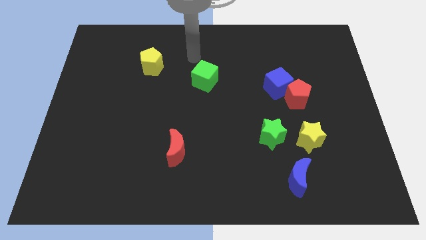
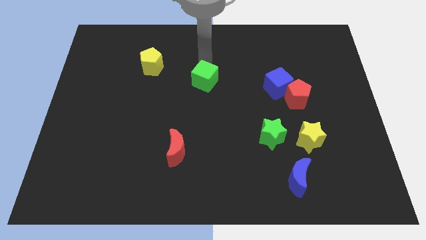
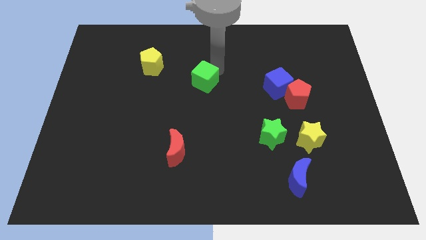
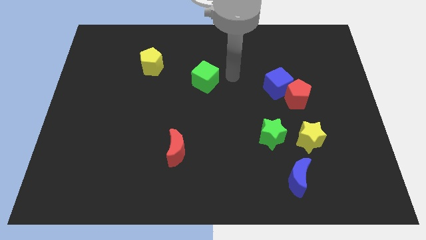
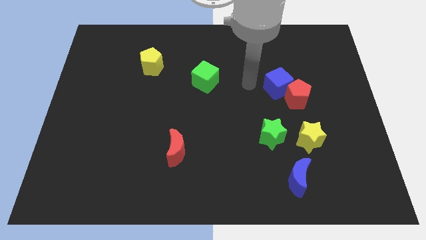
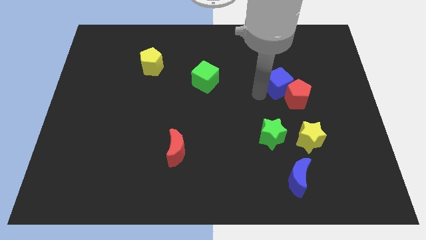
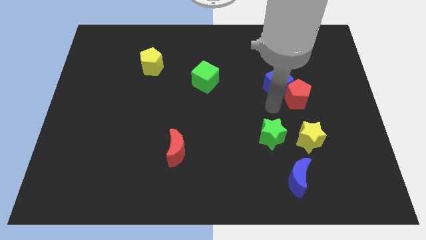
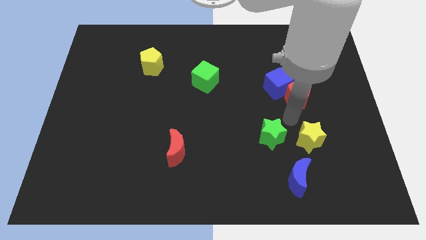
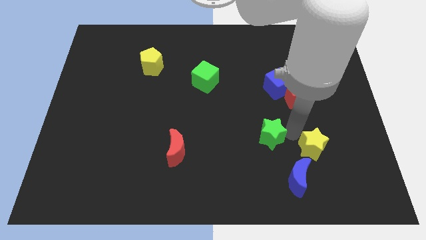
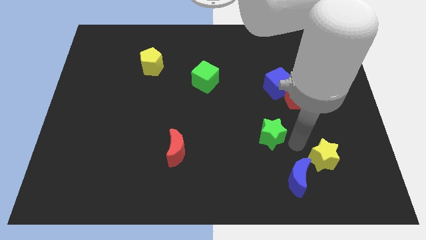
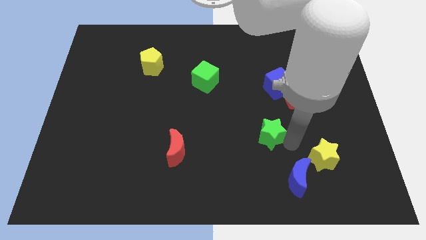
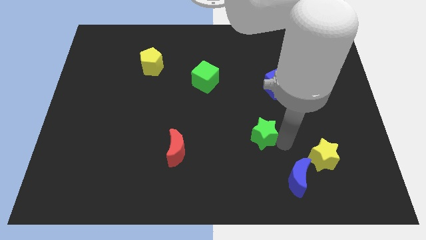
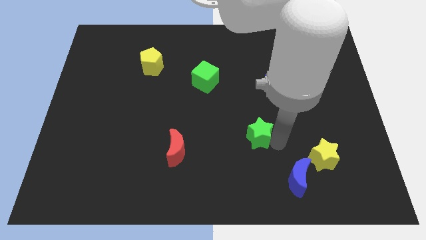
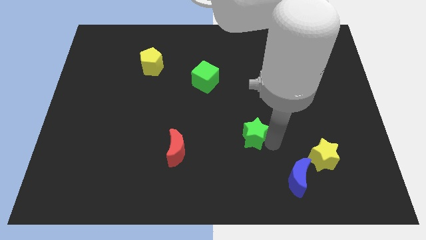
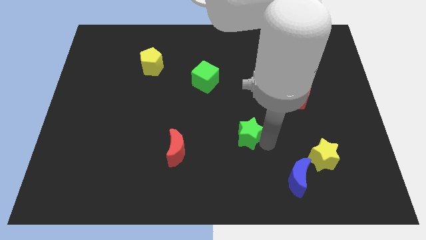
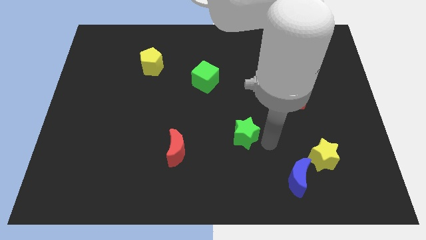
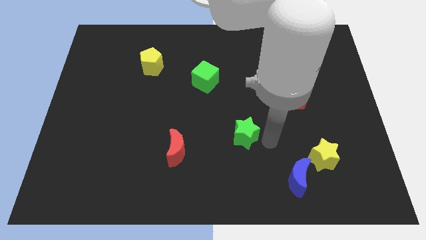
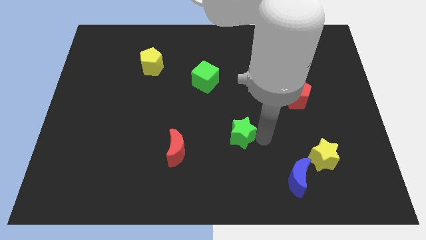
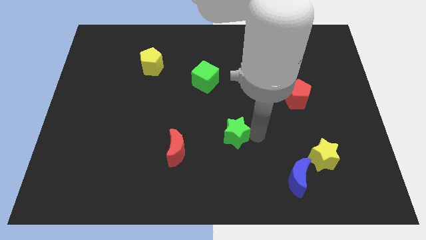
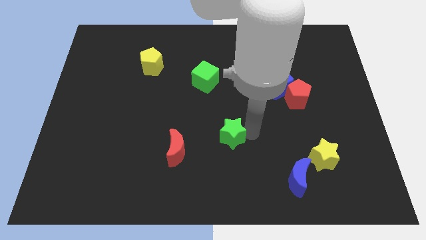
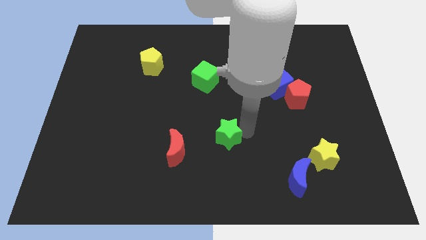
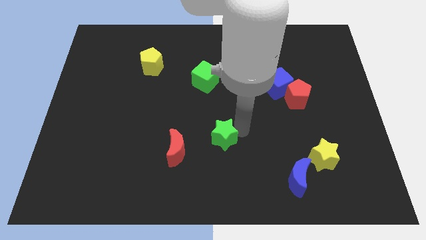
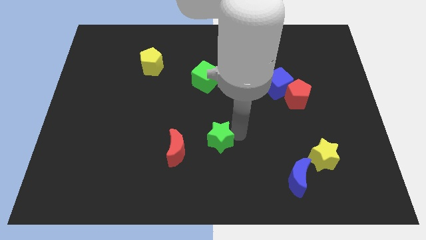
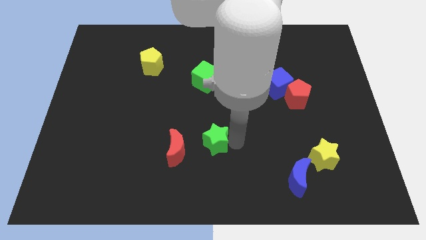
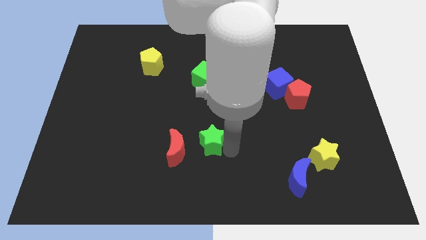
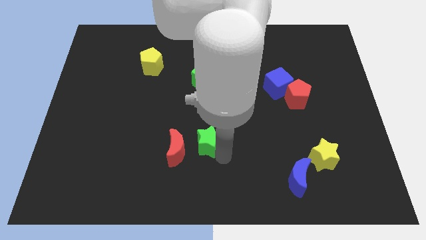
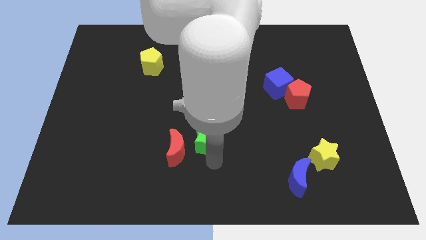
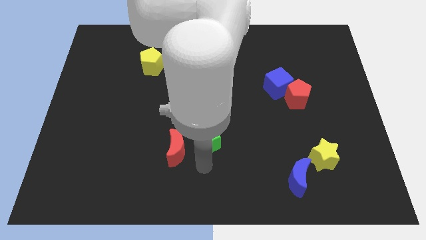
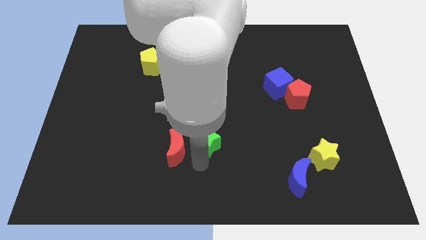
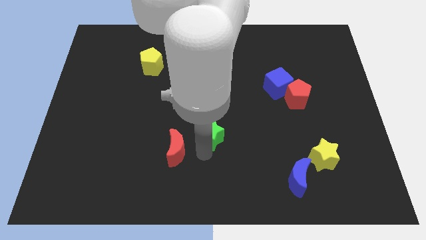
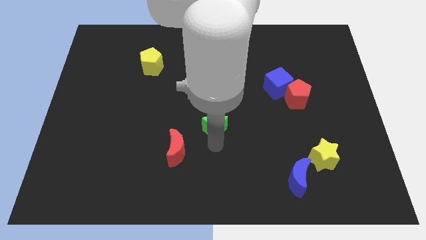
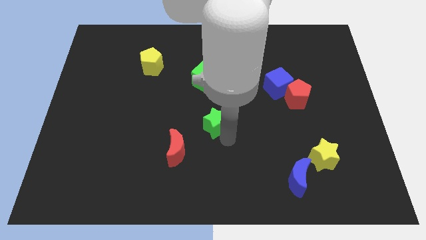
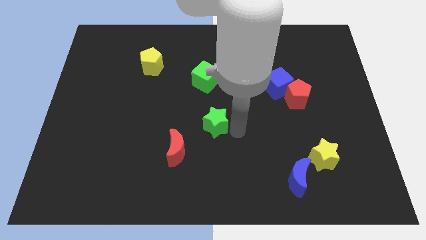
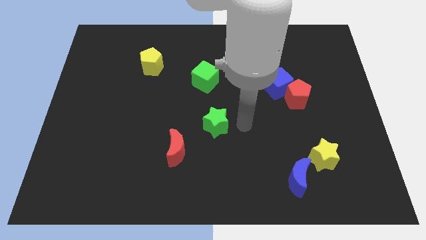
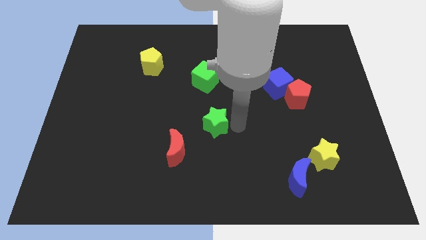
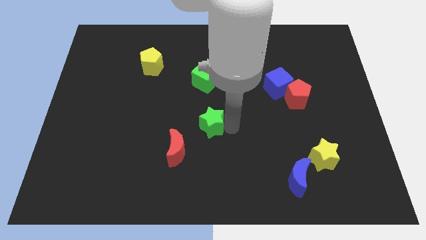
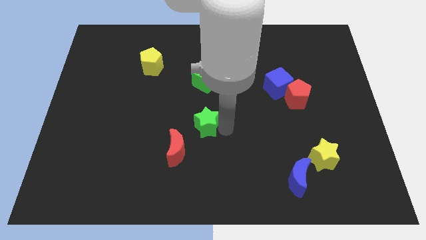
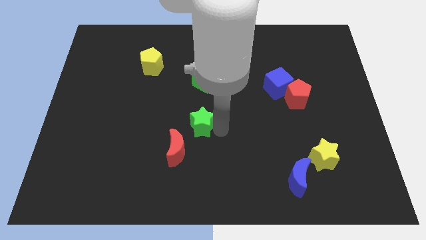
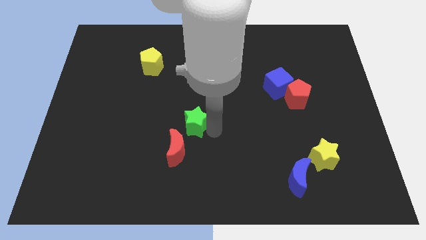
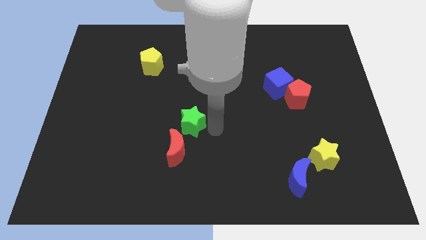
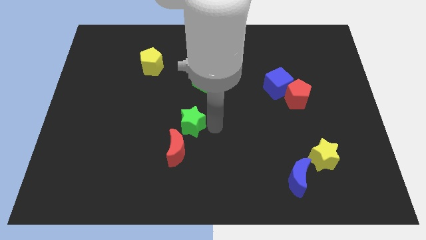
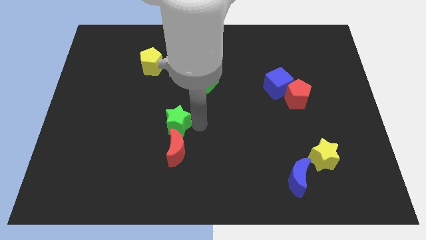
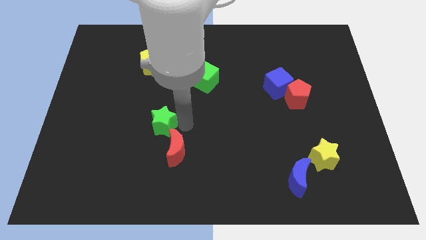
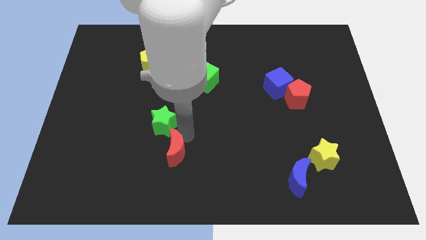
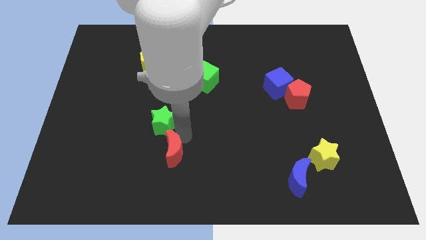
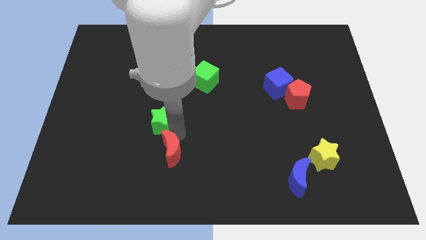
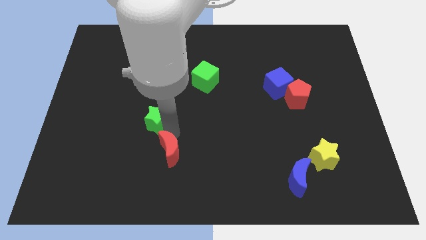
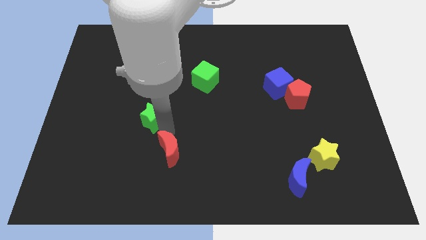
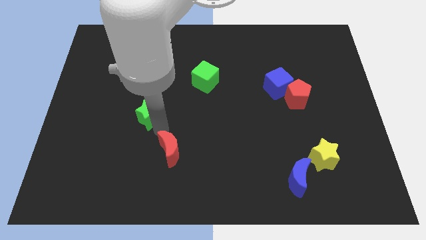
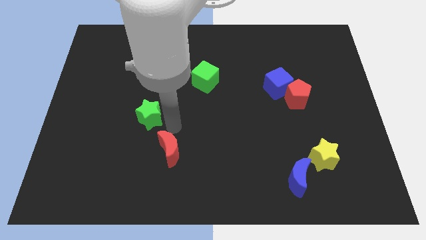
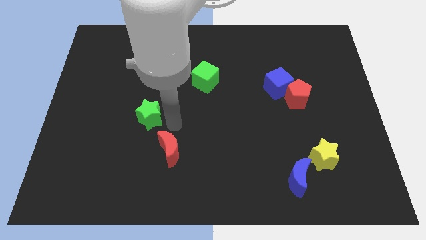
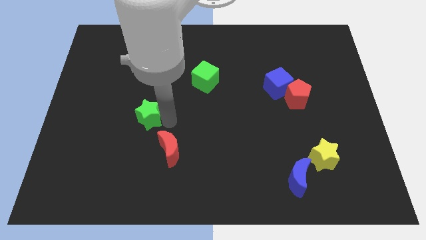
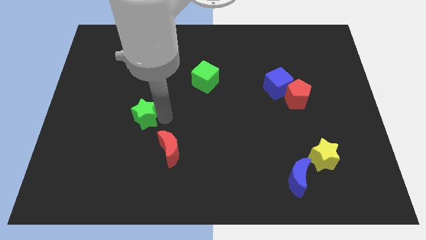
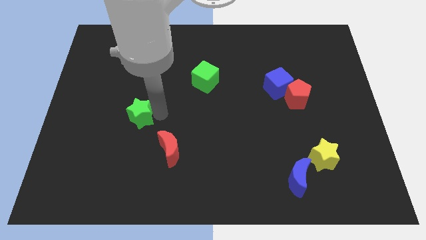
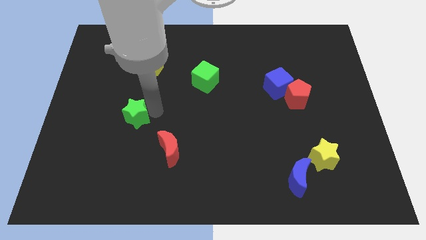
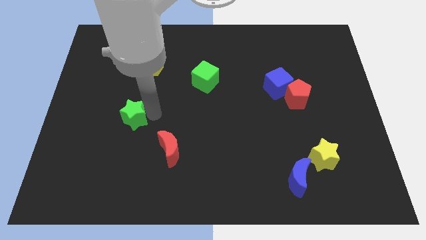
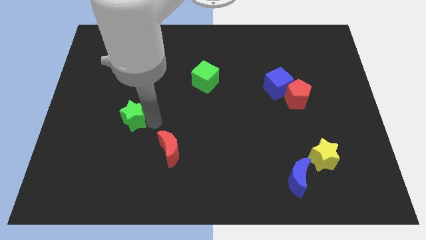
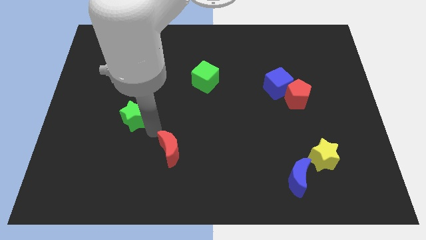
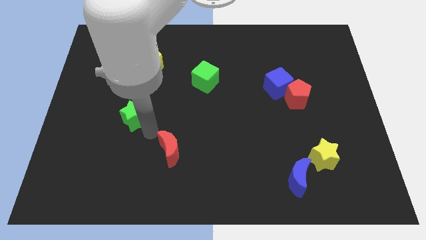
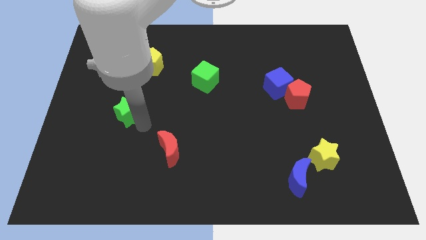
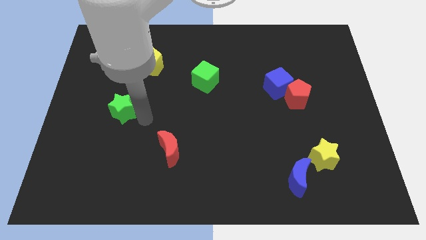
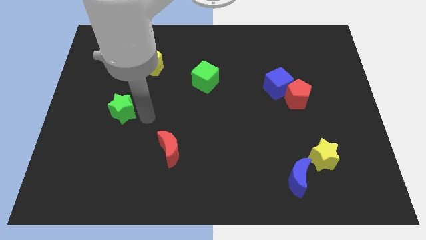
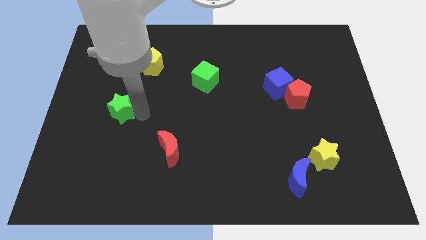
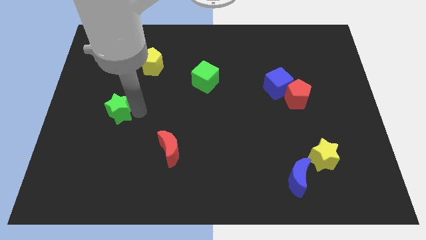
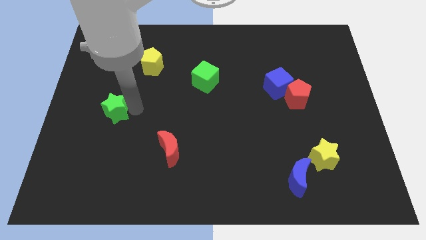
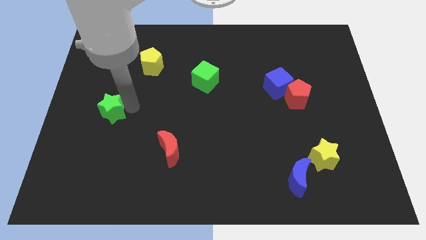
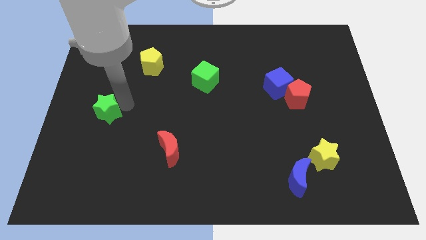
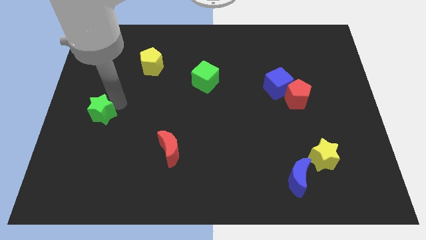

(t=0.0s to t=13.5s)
push the green star to the center left
